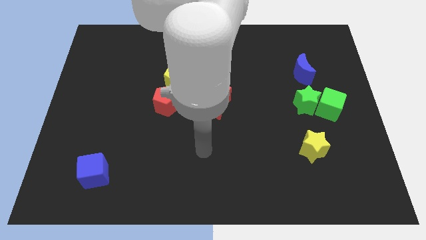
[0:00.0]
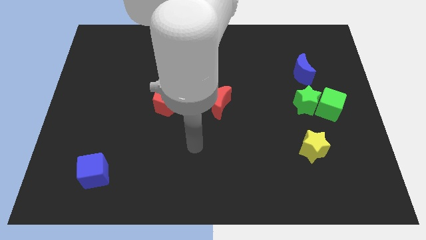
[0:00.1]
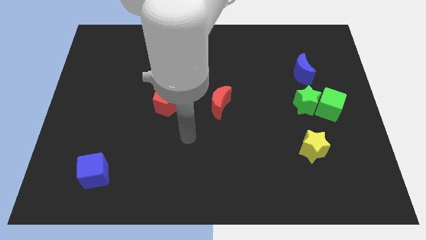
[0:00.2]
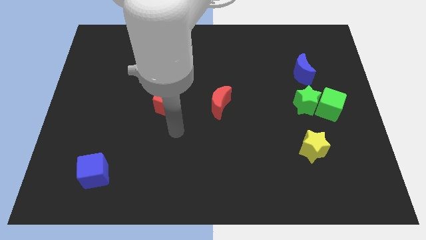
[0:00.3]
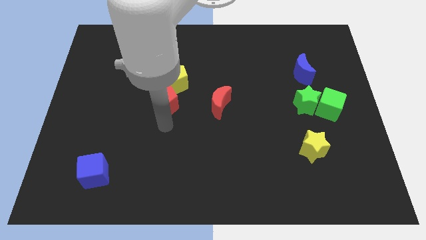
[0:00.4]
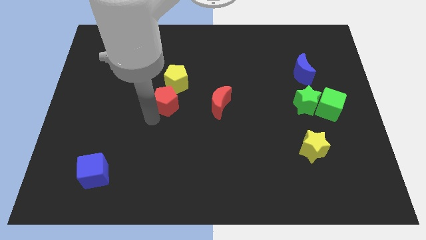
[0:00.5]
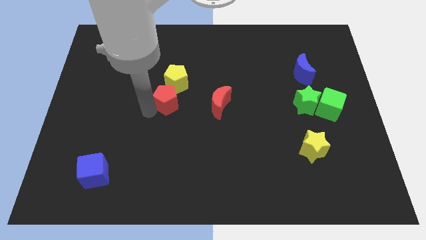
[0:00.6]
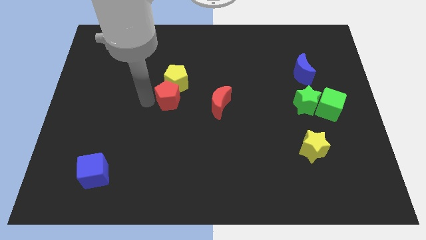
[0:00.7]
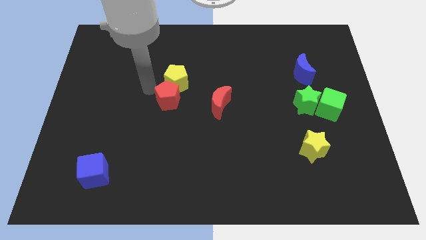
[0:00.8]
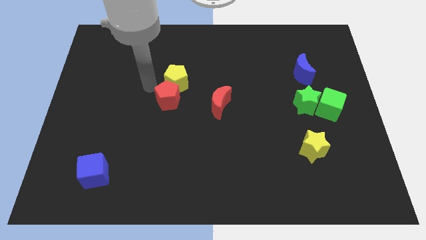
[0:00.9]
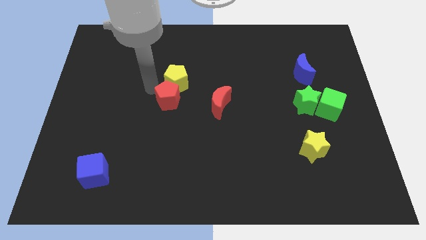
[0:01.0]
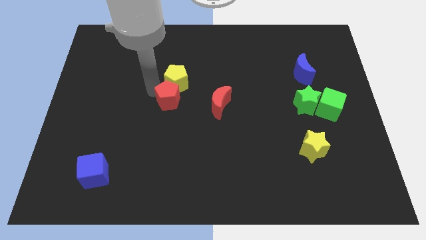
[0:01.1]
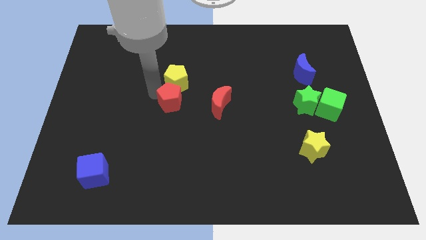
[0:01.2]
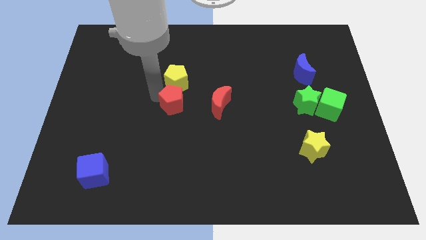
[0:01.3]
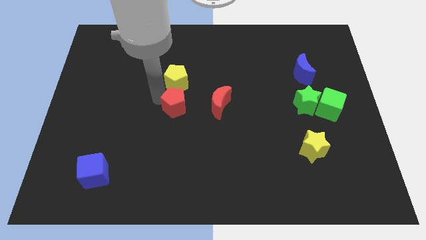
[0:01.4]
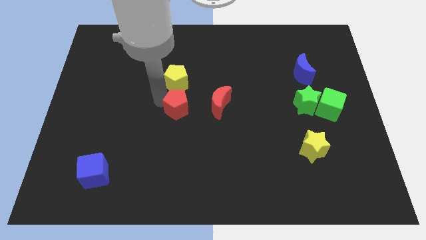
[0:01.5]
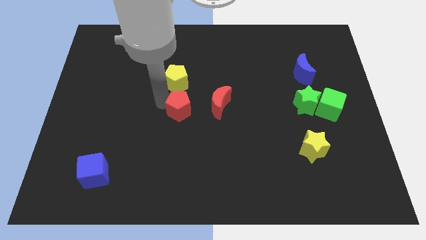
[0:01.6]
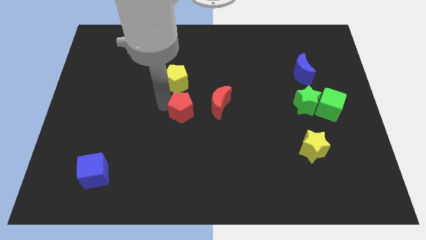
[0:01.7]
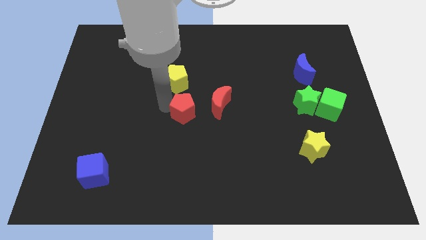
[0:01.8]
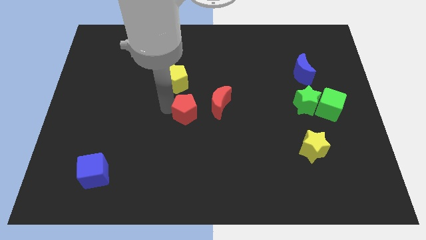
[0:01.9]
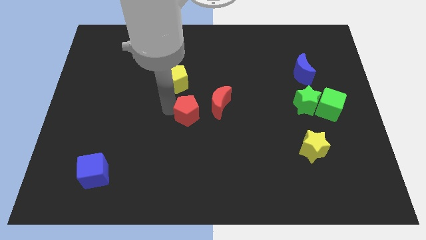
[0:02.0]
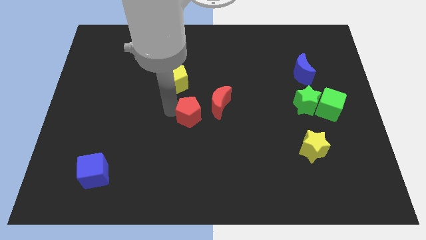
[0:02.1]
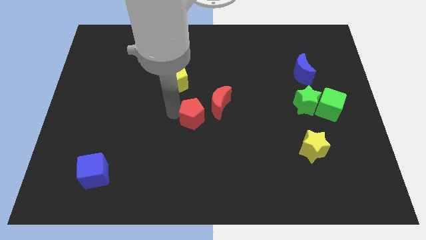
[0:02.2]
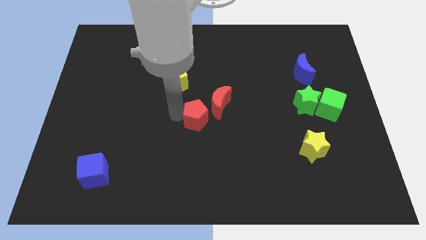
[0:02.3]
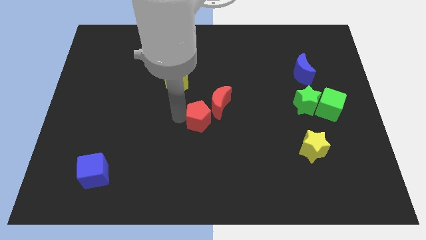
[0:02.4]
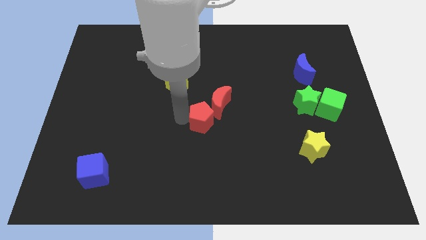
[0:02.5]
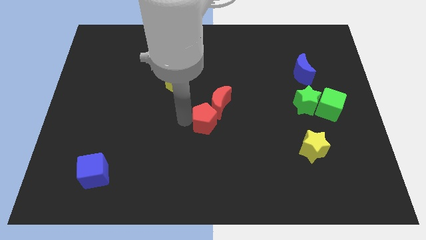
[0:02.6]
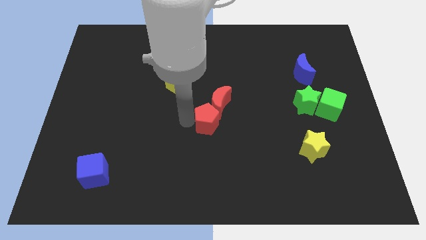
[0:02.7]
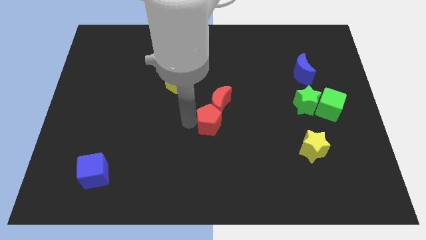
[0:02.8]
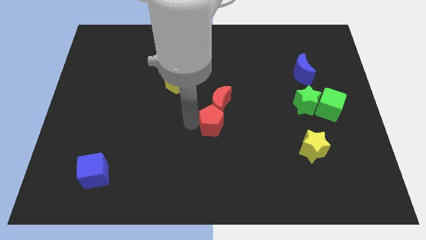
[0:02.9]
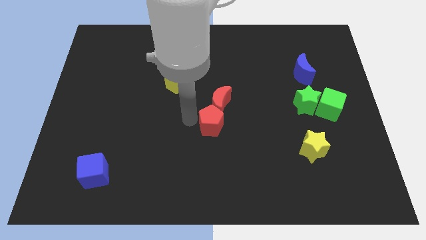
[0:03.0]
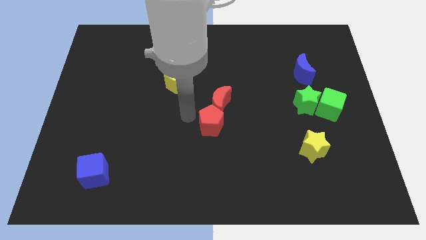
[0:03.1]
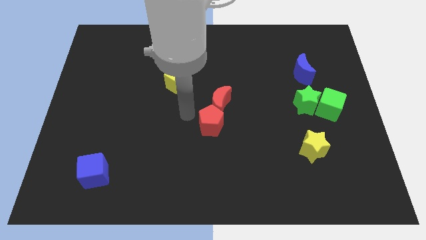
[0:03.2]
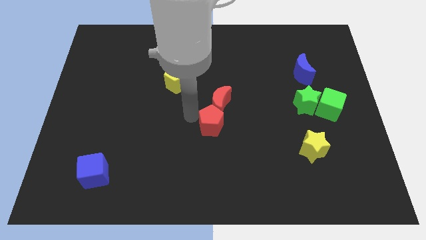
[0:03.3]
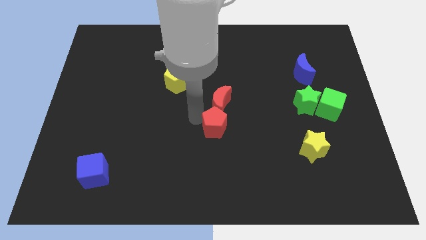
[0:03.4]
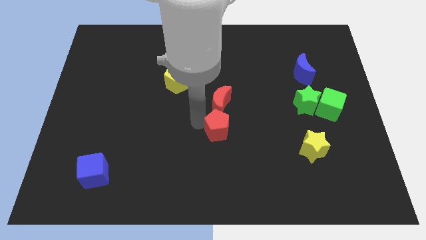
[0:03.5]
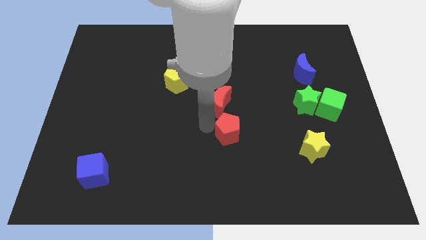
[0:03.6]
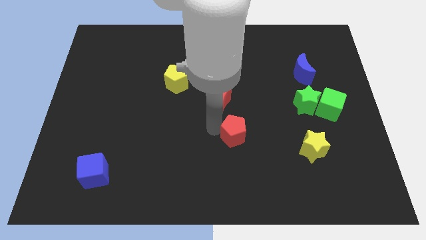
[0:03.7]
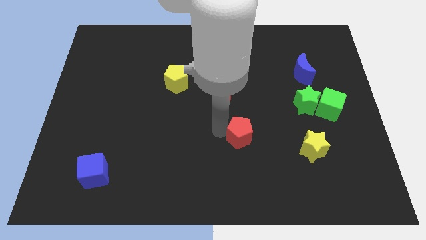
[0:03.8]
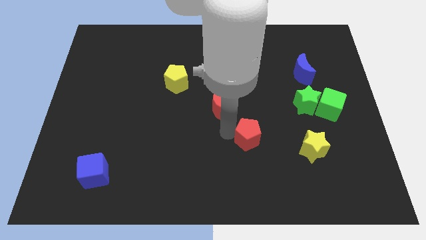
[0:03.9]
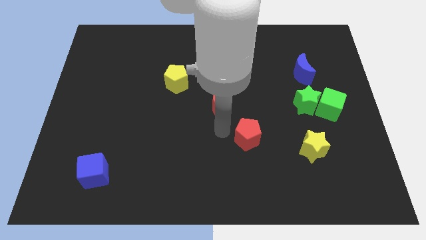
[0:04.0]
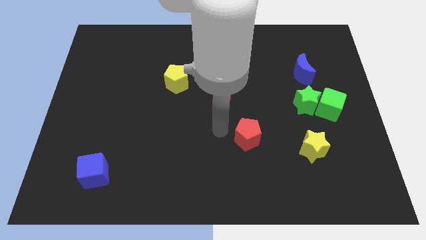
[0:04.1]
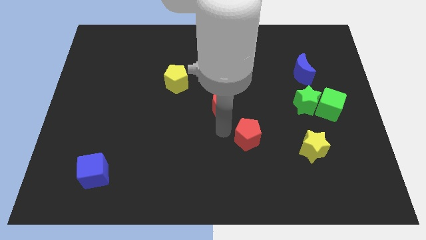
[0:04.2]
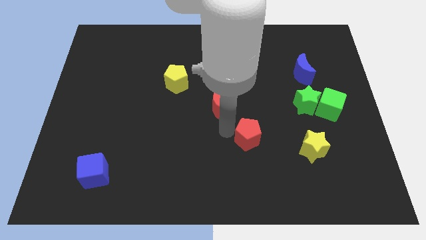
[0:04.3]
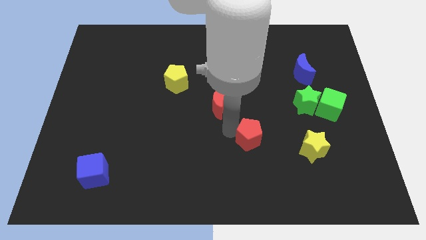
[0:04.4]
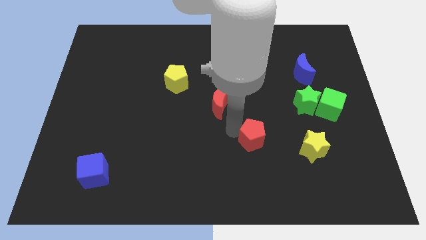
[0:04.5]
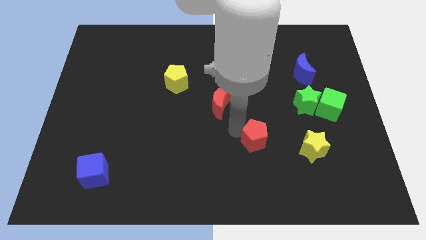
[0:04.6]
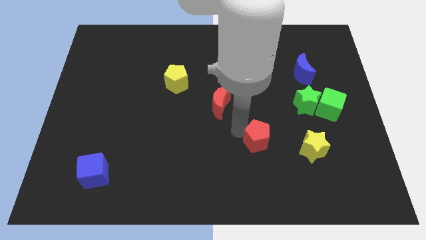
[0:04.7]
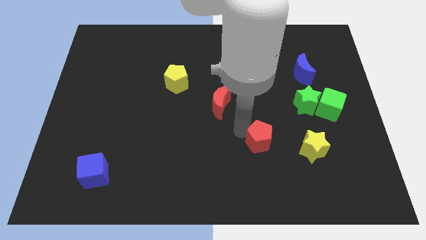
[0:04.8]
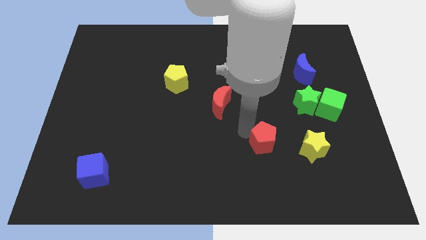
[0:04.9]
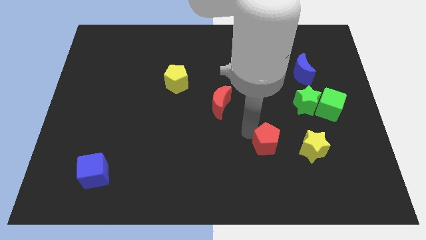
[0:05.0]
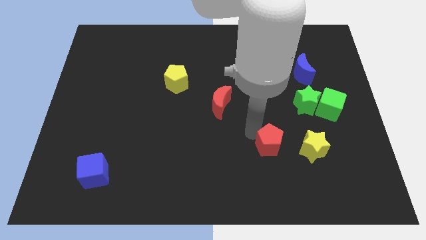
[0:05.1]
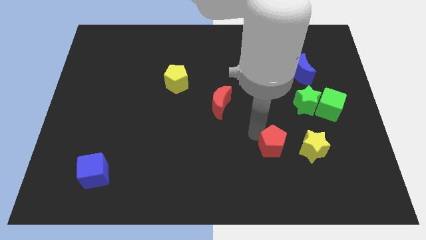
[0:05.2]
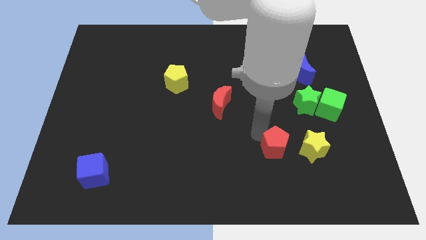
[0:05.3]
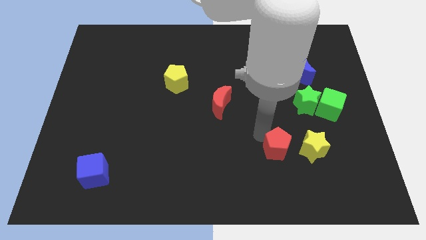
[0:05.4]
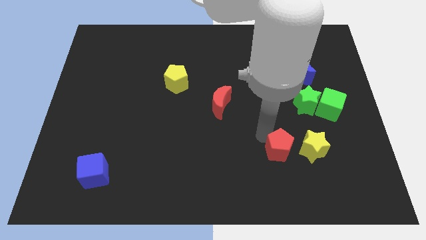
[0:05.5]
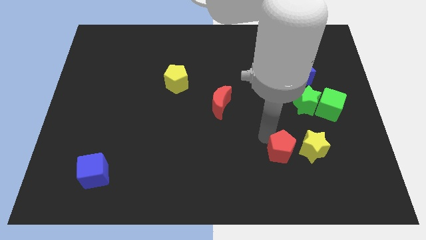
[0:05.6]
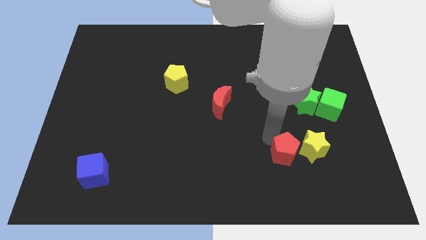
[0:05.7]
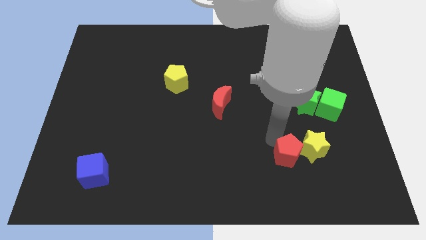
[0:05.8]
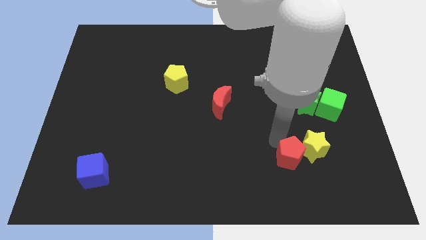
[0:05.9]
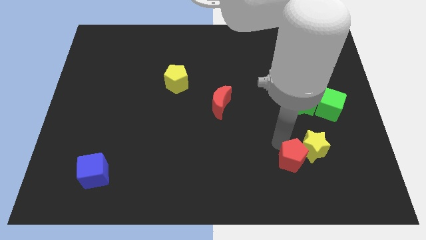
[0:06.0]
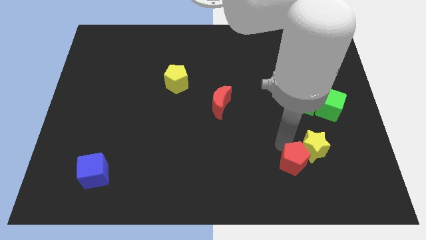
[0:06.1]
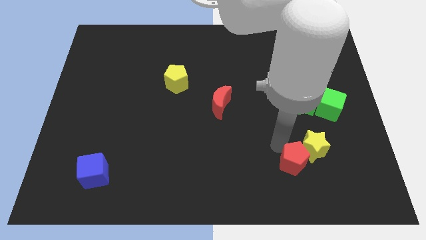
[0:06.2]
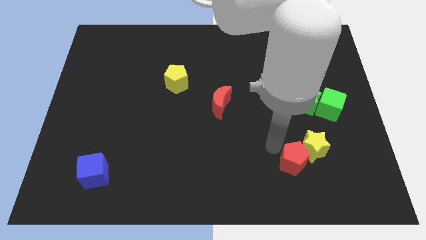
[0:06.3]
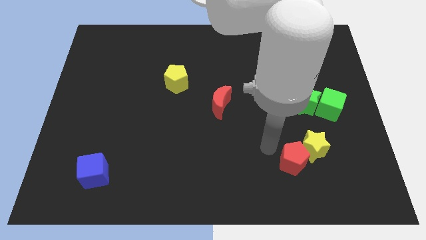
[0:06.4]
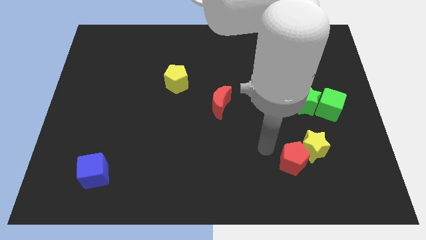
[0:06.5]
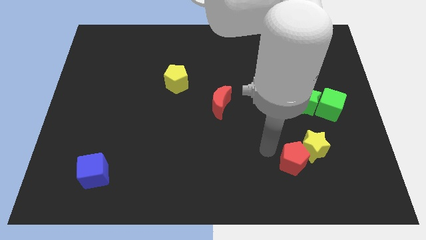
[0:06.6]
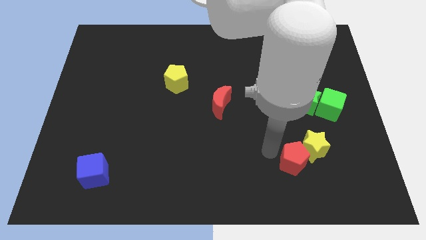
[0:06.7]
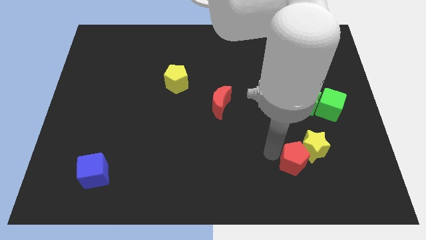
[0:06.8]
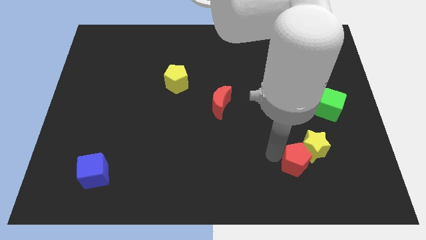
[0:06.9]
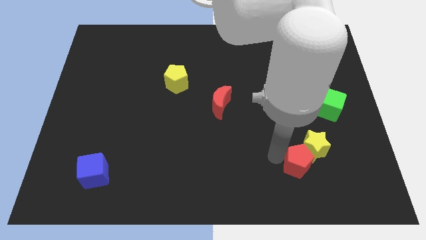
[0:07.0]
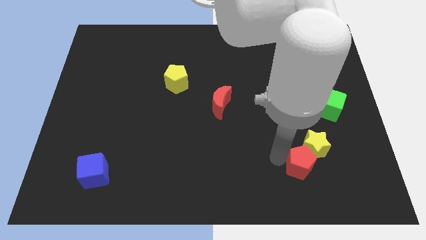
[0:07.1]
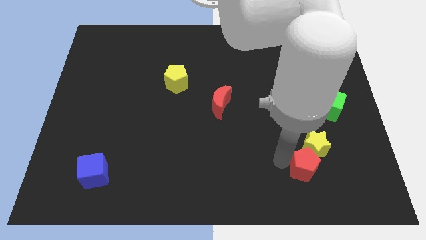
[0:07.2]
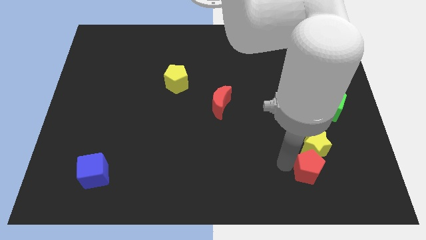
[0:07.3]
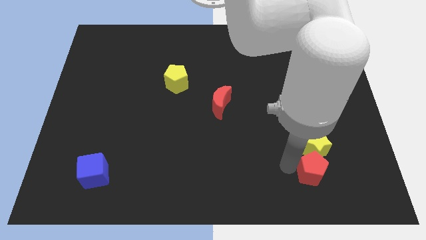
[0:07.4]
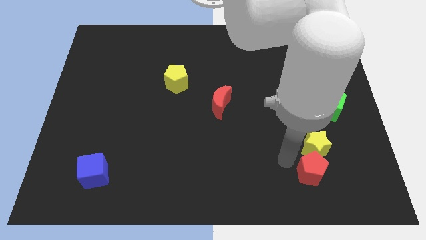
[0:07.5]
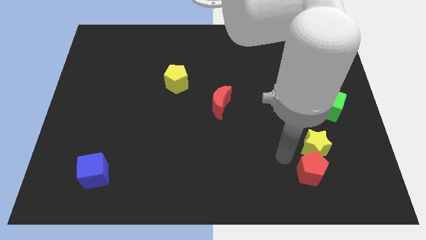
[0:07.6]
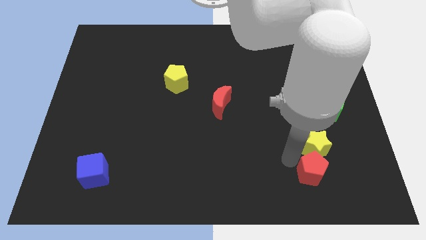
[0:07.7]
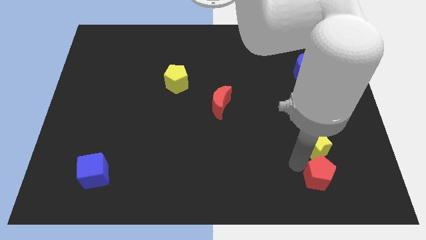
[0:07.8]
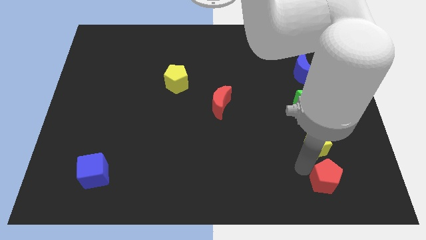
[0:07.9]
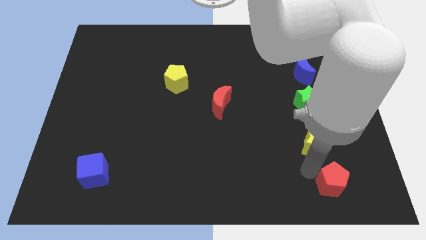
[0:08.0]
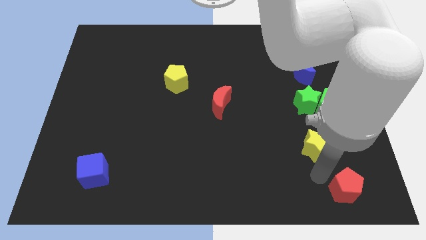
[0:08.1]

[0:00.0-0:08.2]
put the red pentagon to the bottom right
